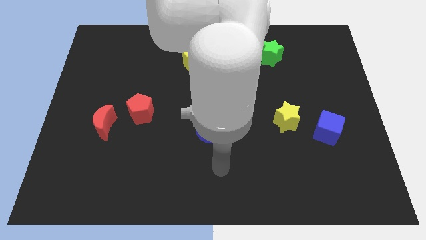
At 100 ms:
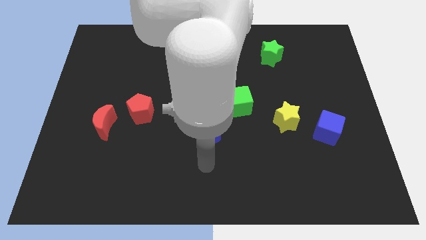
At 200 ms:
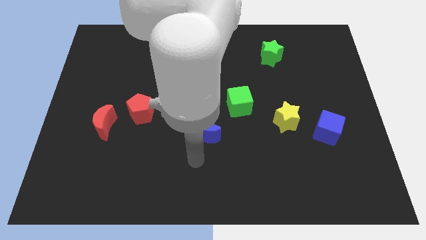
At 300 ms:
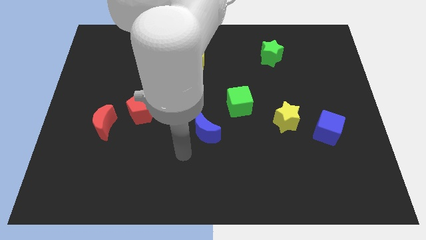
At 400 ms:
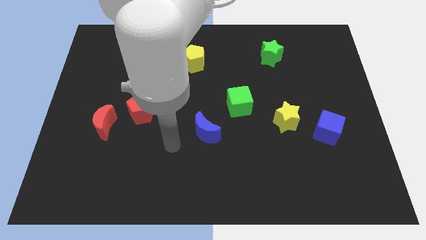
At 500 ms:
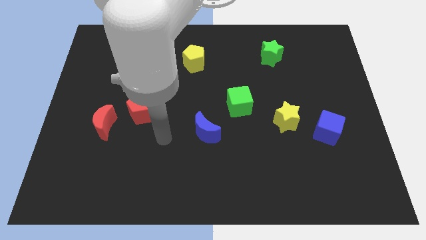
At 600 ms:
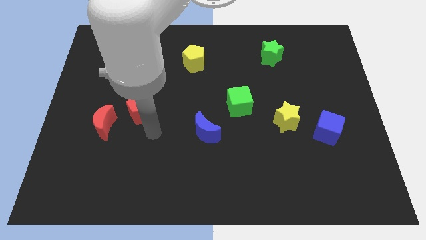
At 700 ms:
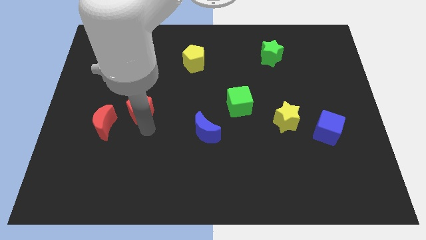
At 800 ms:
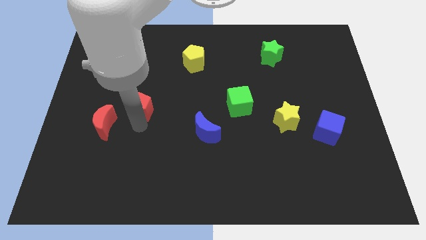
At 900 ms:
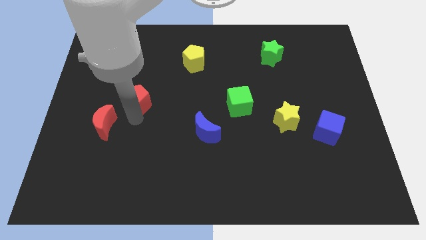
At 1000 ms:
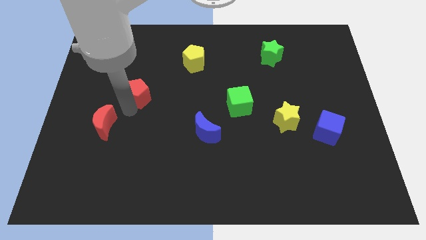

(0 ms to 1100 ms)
move the red moon away from the red pentagon

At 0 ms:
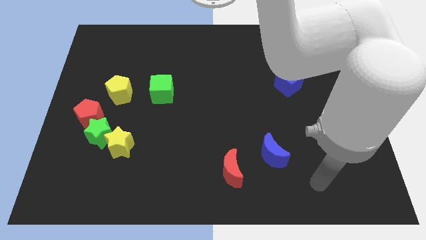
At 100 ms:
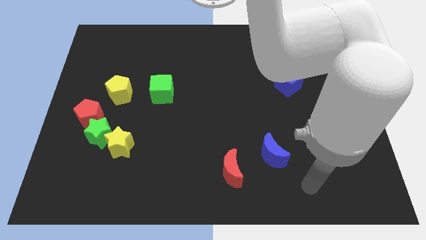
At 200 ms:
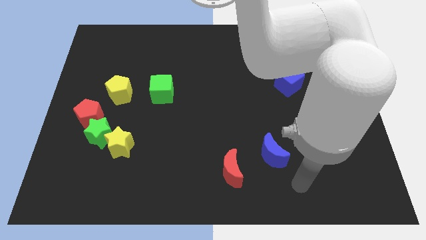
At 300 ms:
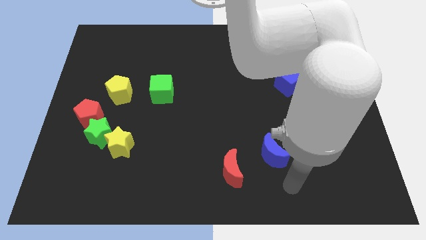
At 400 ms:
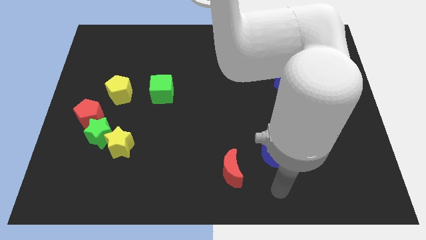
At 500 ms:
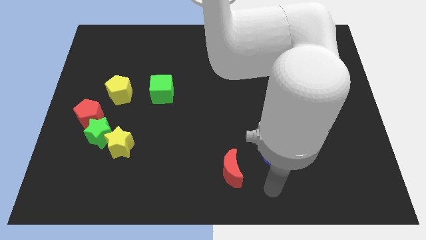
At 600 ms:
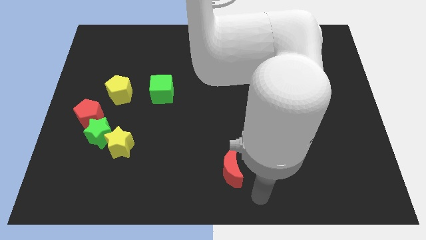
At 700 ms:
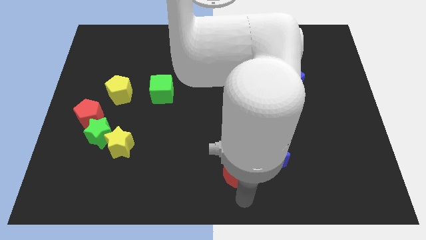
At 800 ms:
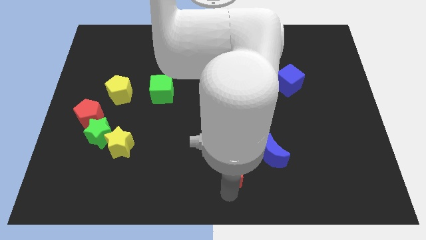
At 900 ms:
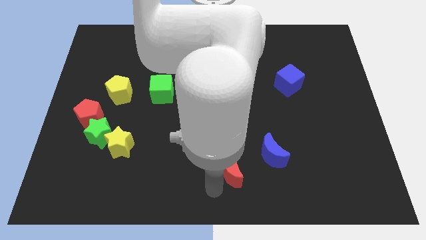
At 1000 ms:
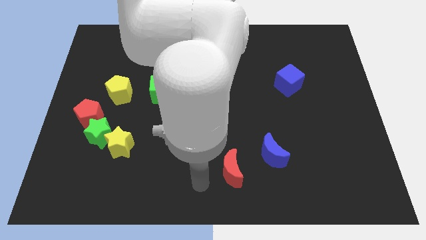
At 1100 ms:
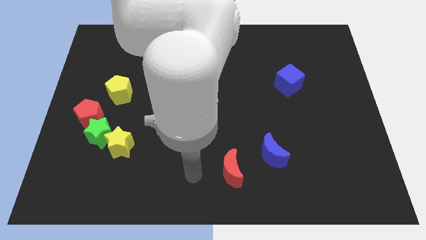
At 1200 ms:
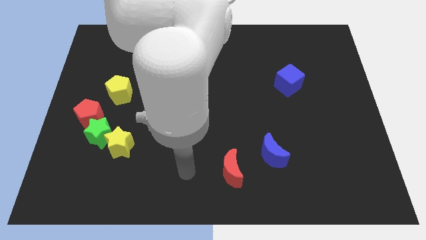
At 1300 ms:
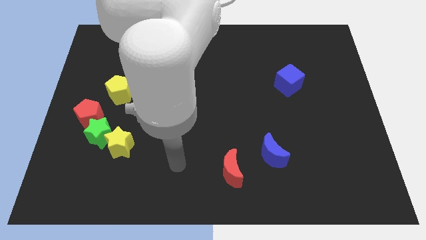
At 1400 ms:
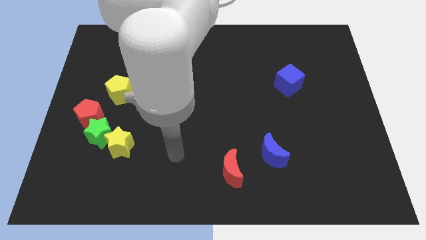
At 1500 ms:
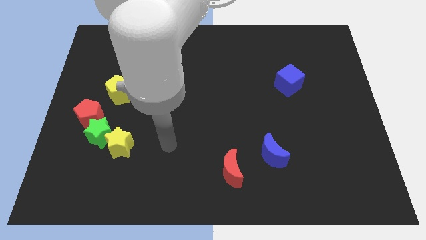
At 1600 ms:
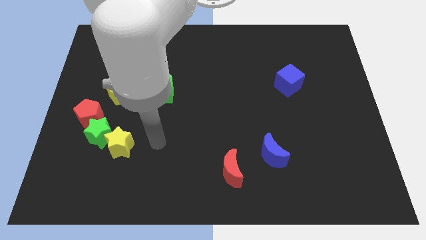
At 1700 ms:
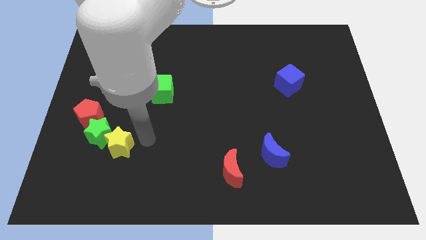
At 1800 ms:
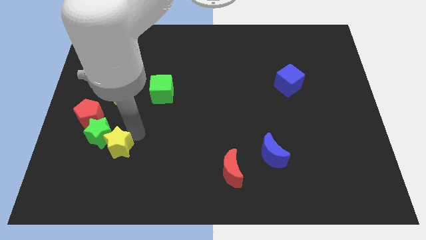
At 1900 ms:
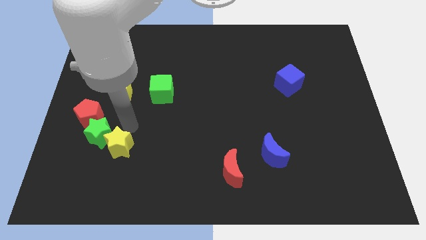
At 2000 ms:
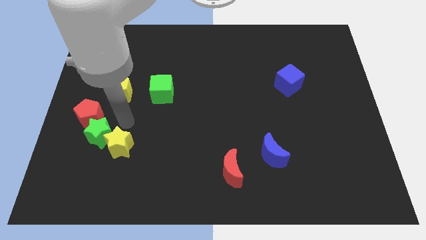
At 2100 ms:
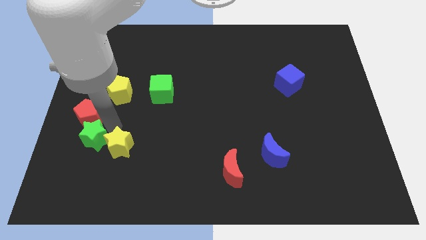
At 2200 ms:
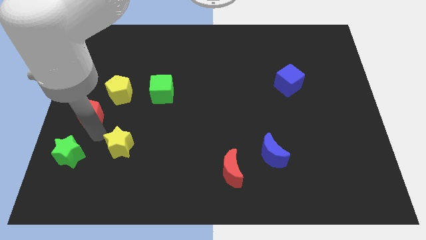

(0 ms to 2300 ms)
separate the yellow star from the green star

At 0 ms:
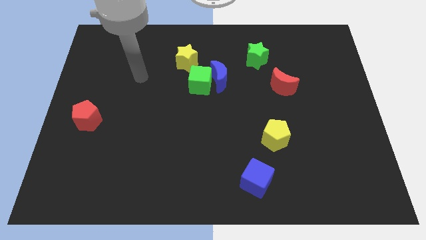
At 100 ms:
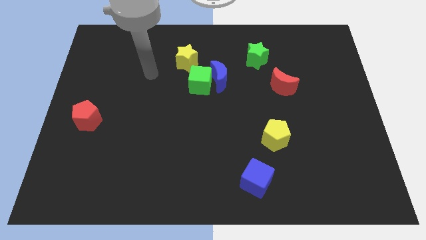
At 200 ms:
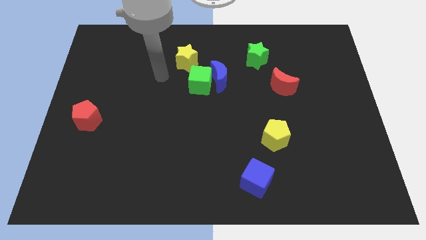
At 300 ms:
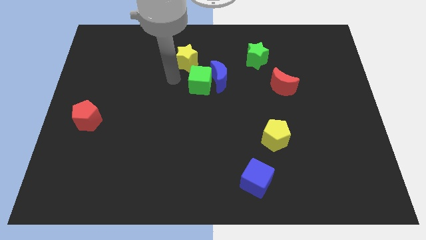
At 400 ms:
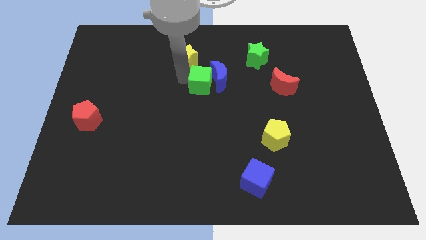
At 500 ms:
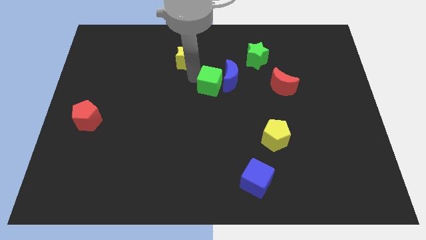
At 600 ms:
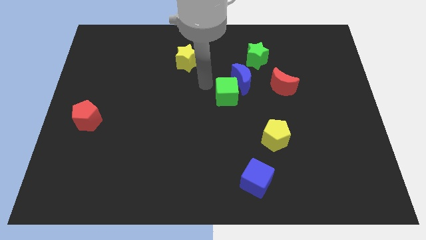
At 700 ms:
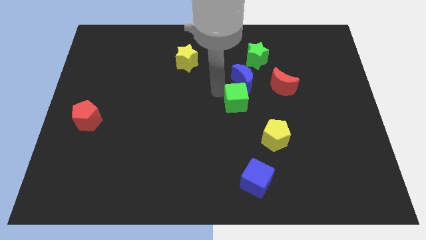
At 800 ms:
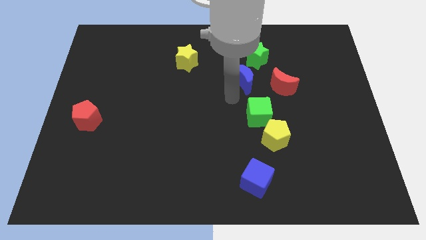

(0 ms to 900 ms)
pull the blue moon apart from the green cube

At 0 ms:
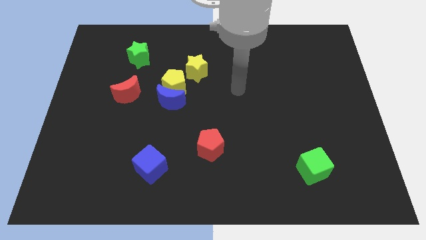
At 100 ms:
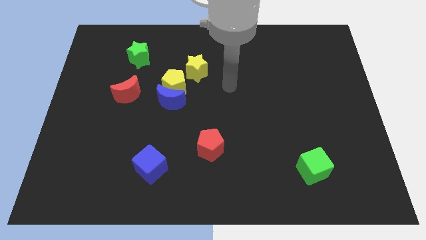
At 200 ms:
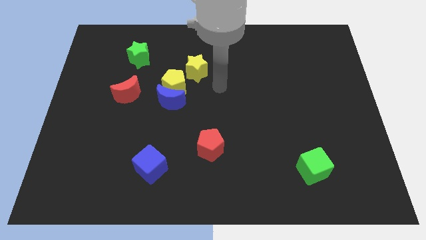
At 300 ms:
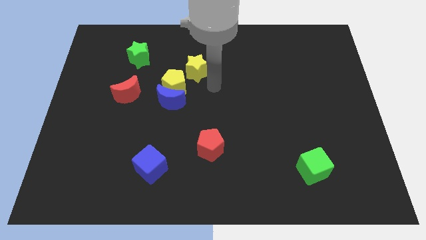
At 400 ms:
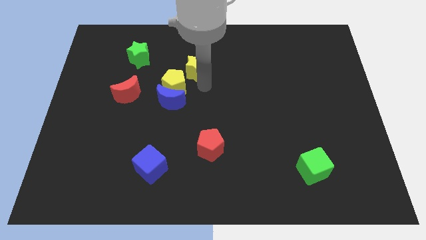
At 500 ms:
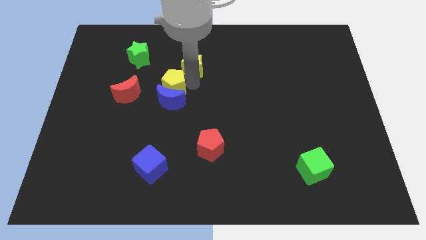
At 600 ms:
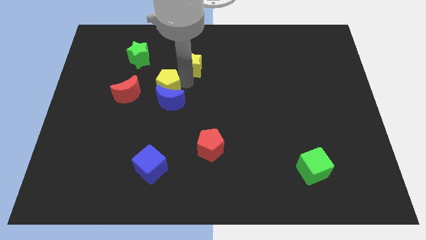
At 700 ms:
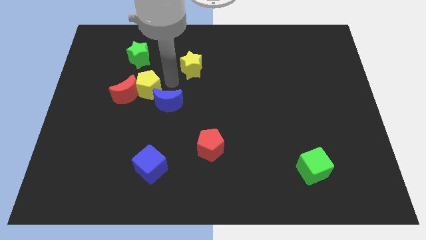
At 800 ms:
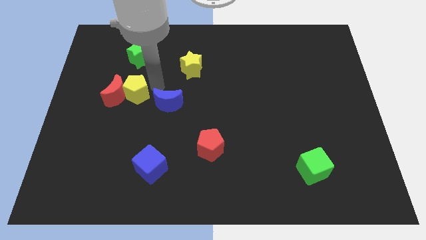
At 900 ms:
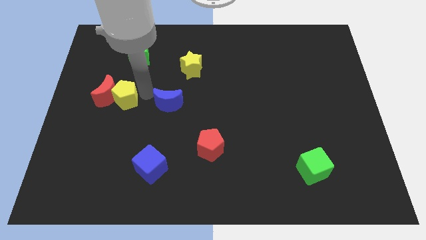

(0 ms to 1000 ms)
separate the blue moon from the yellow pentagon

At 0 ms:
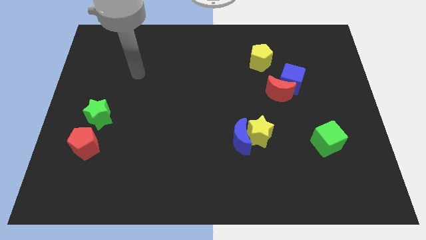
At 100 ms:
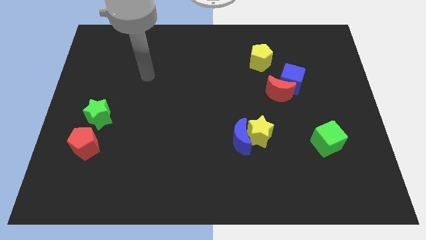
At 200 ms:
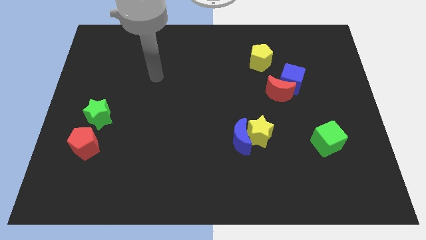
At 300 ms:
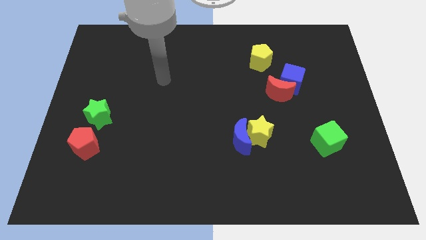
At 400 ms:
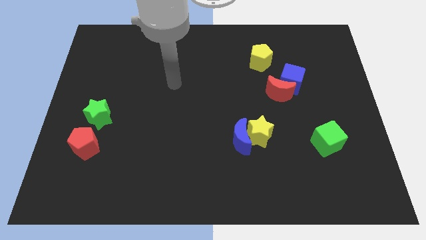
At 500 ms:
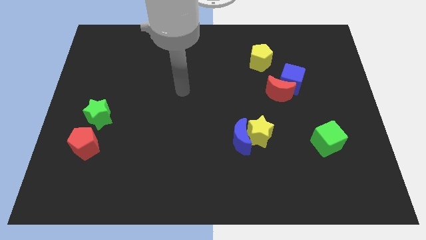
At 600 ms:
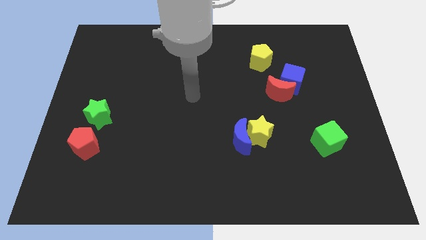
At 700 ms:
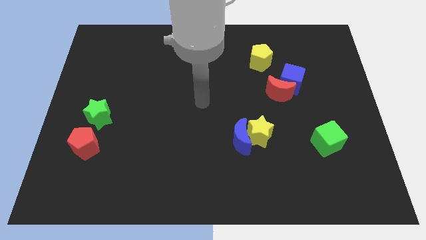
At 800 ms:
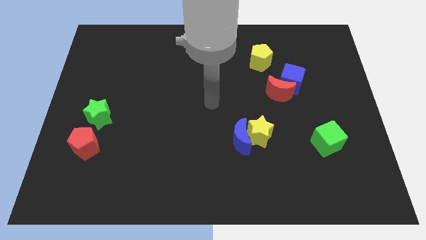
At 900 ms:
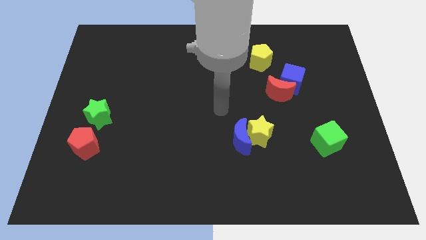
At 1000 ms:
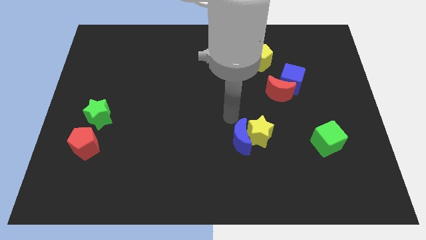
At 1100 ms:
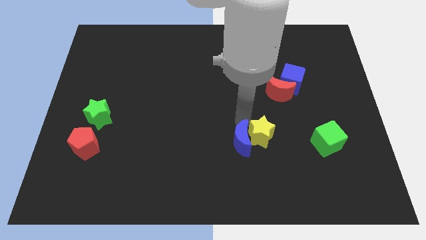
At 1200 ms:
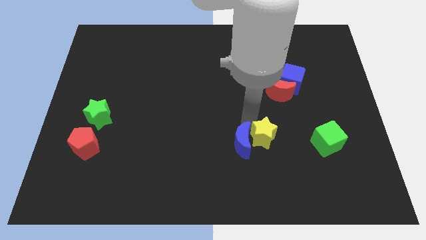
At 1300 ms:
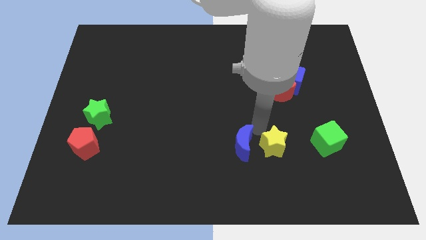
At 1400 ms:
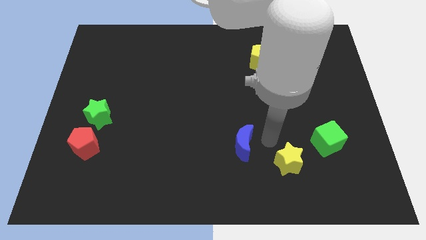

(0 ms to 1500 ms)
separate the blue moon from the yellow star

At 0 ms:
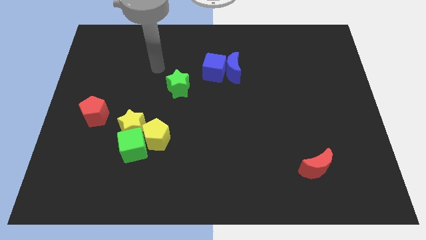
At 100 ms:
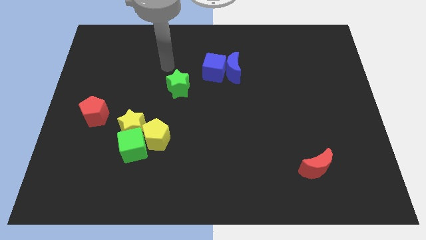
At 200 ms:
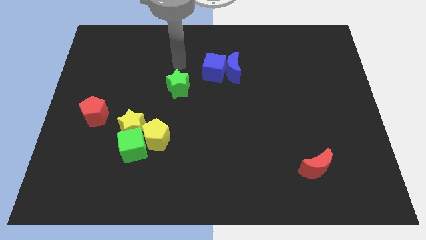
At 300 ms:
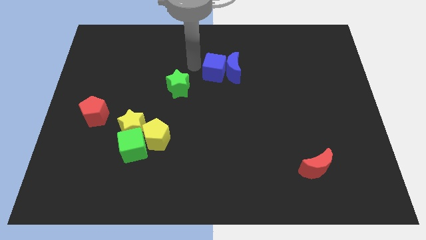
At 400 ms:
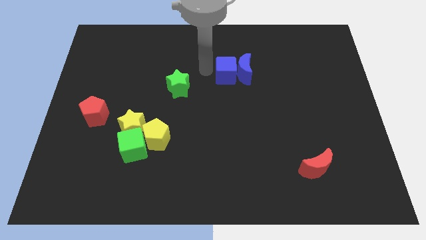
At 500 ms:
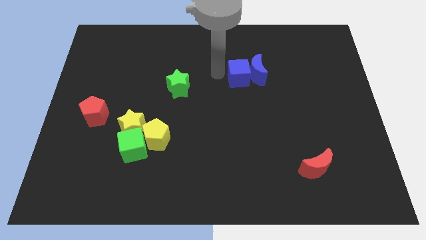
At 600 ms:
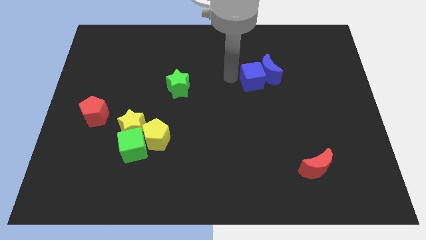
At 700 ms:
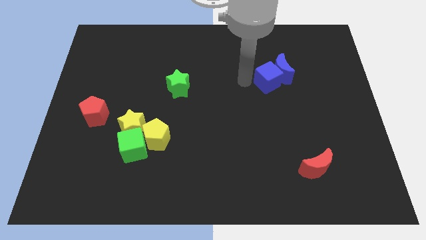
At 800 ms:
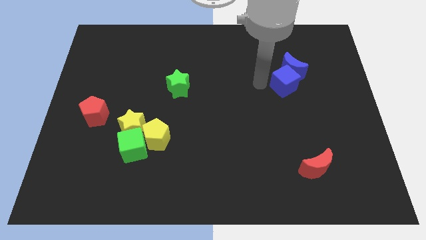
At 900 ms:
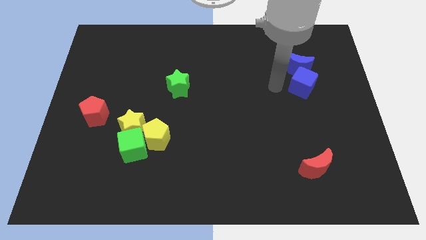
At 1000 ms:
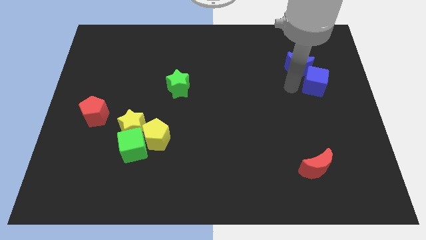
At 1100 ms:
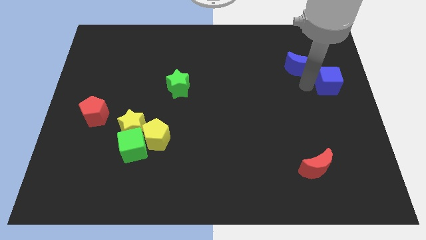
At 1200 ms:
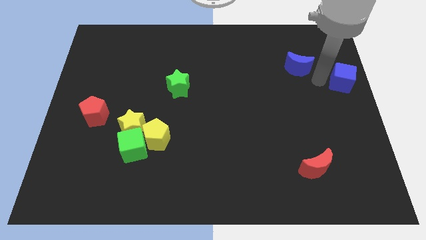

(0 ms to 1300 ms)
separate the blue moon from the blue cube

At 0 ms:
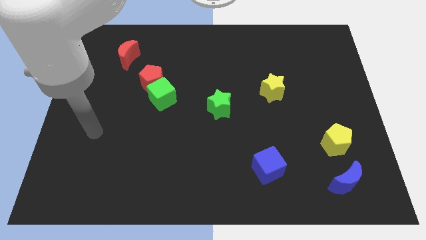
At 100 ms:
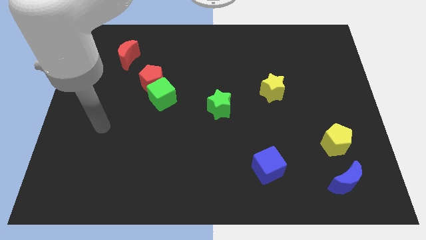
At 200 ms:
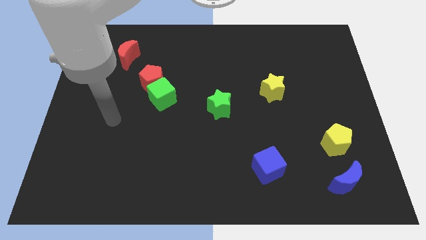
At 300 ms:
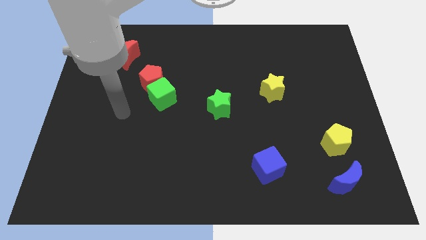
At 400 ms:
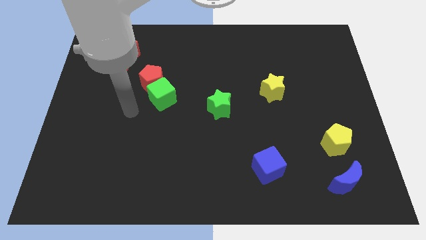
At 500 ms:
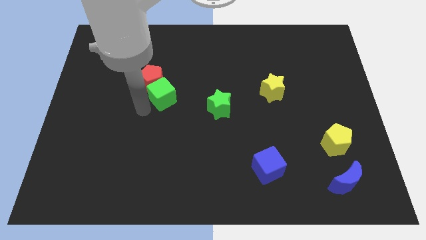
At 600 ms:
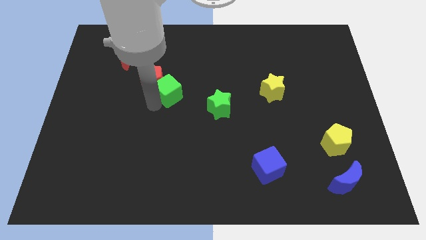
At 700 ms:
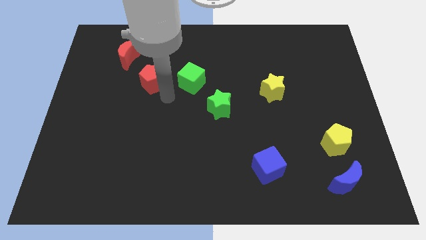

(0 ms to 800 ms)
separate the red pentagon from the green cube

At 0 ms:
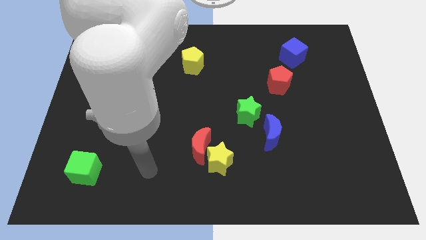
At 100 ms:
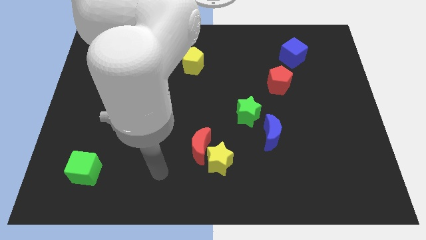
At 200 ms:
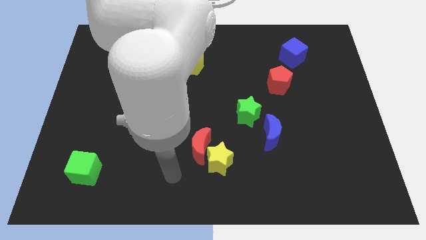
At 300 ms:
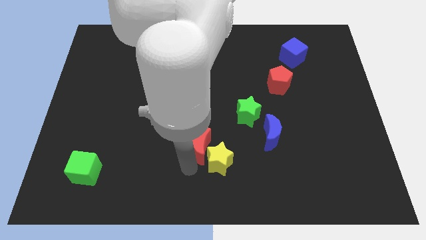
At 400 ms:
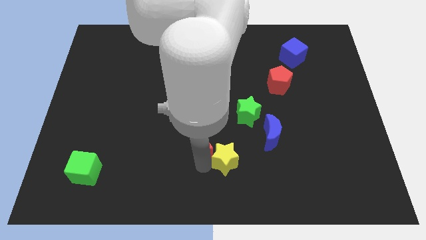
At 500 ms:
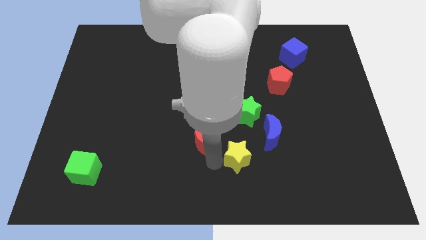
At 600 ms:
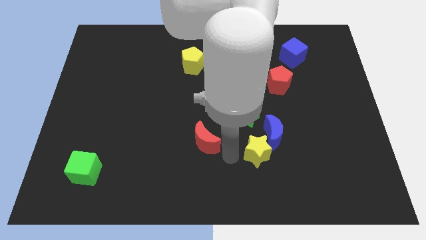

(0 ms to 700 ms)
move the red moon away from the yellow star
